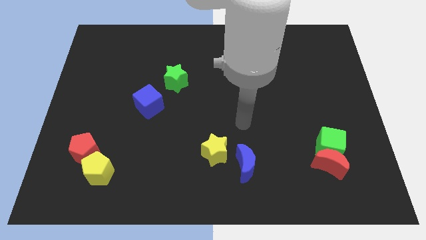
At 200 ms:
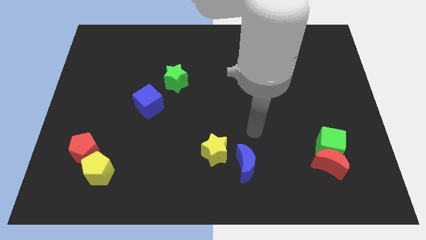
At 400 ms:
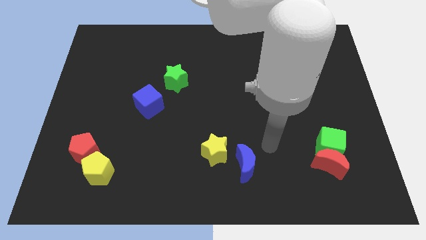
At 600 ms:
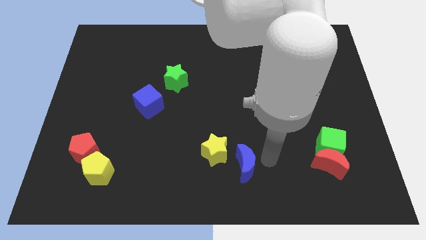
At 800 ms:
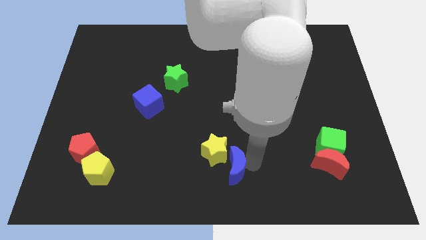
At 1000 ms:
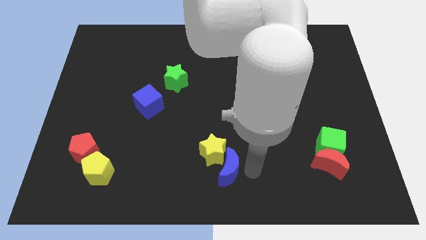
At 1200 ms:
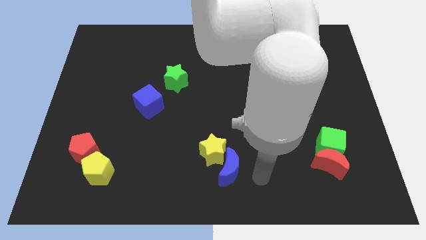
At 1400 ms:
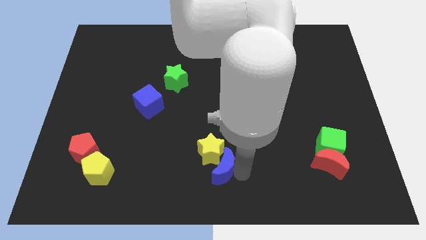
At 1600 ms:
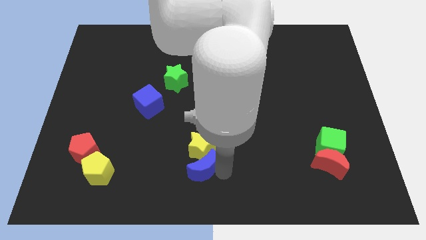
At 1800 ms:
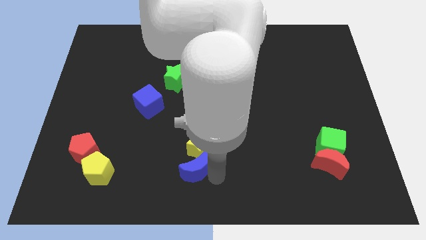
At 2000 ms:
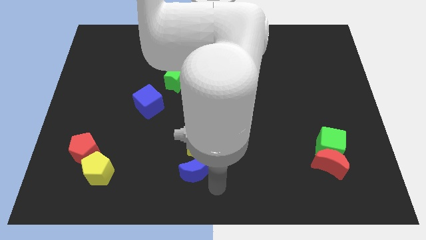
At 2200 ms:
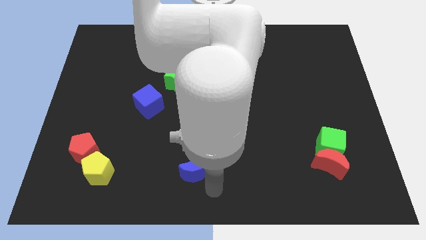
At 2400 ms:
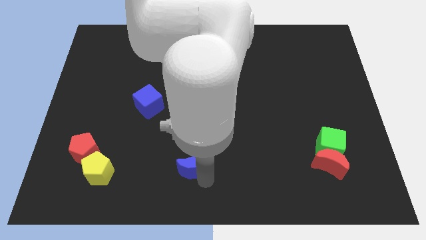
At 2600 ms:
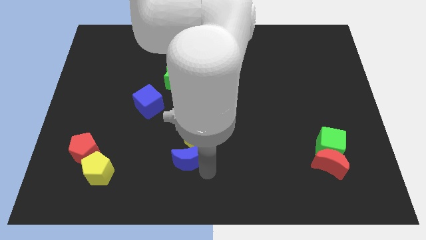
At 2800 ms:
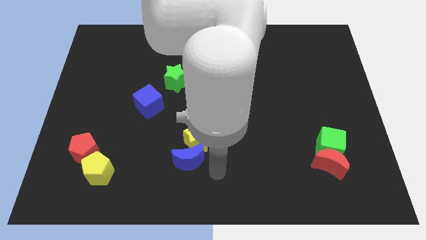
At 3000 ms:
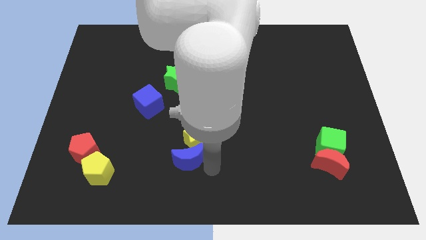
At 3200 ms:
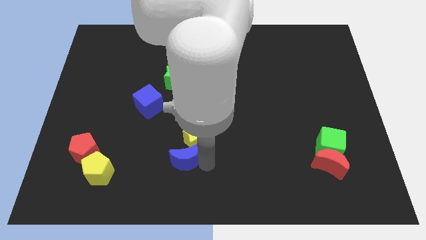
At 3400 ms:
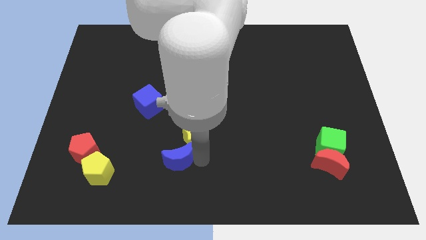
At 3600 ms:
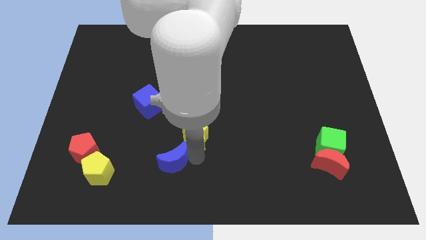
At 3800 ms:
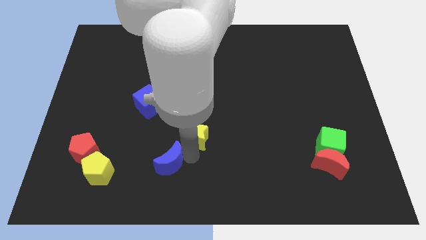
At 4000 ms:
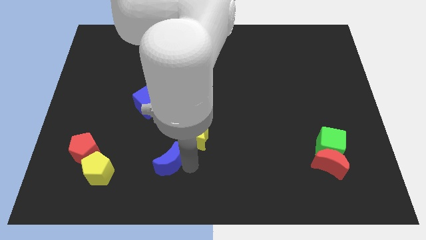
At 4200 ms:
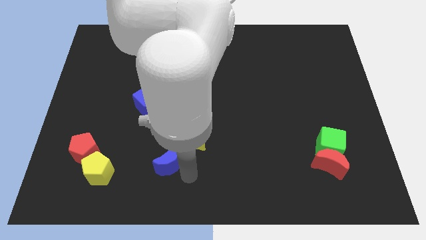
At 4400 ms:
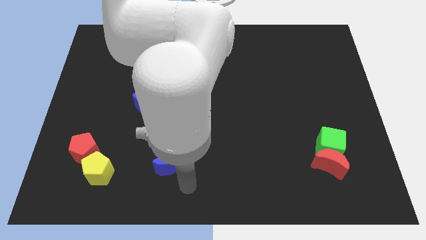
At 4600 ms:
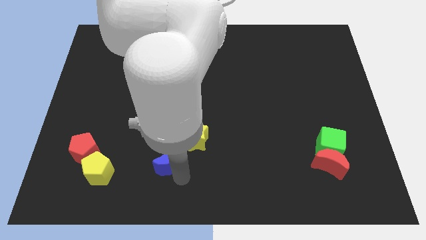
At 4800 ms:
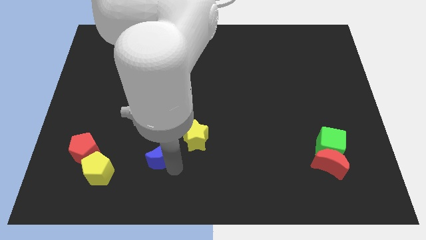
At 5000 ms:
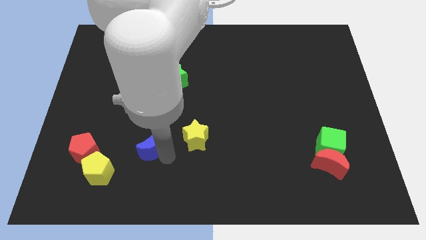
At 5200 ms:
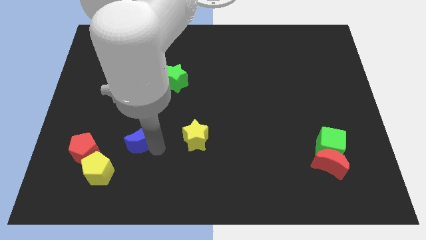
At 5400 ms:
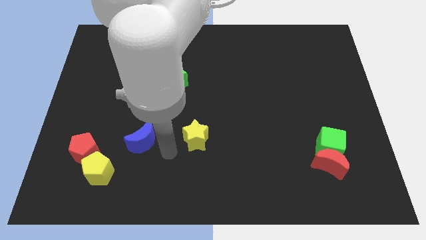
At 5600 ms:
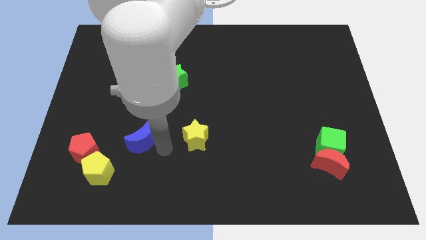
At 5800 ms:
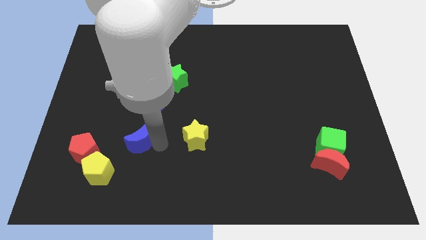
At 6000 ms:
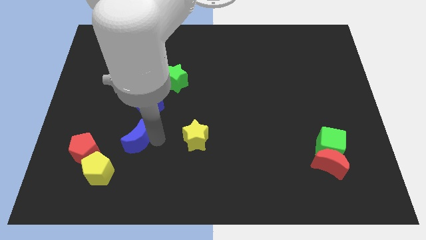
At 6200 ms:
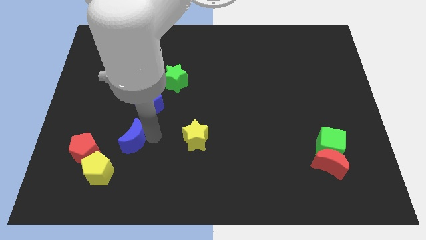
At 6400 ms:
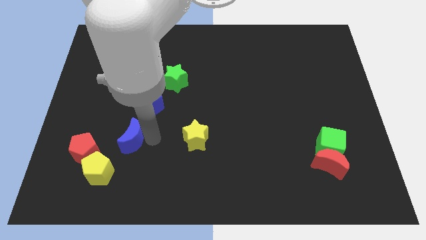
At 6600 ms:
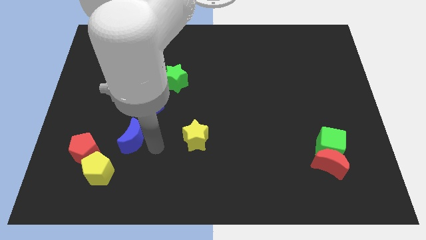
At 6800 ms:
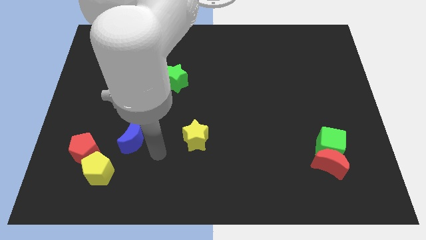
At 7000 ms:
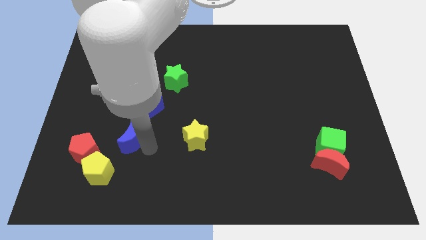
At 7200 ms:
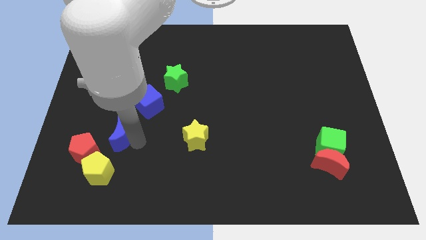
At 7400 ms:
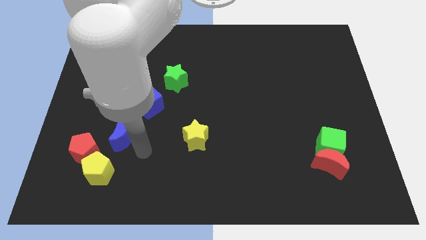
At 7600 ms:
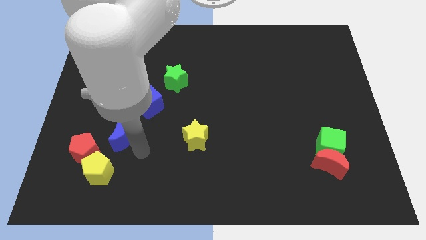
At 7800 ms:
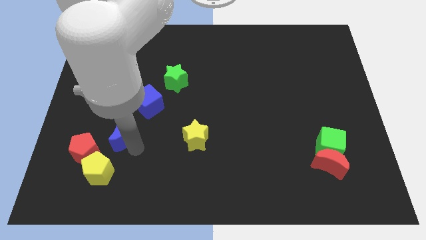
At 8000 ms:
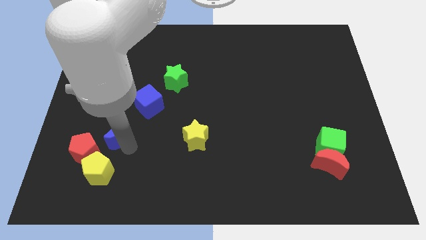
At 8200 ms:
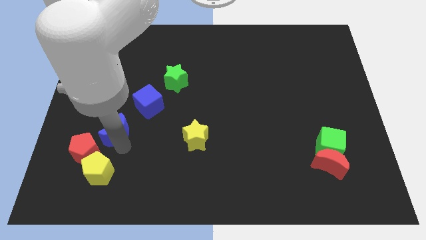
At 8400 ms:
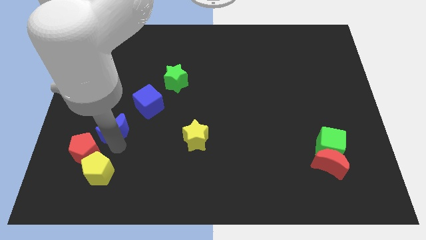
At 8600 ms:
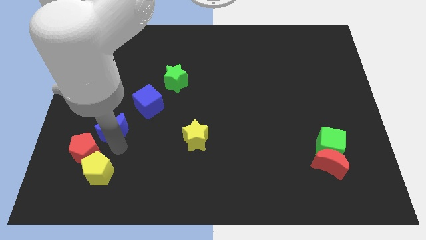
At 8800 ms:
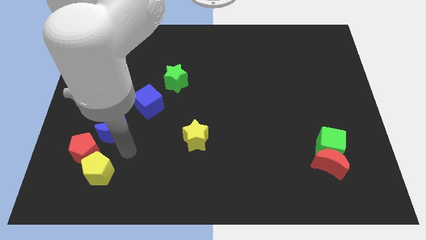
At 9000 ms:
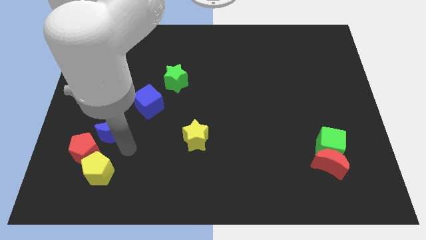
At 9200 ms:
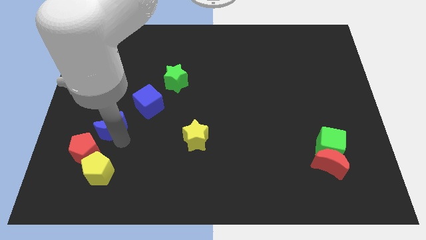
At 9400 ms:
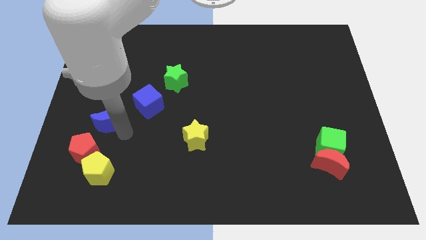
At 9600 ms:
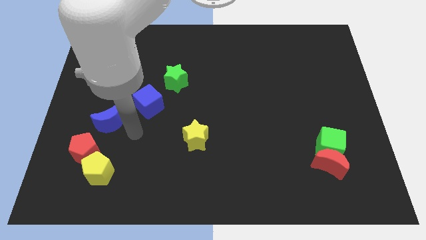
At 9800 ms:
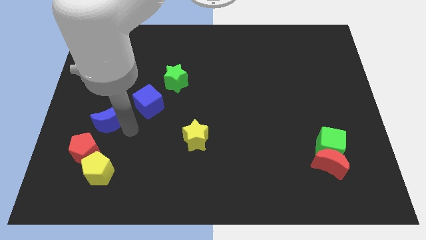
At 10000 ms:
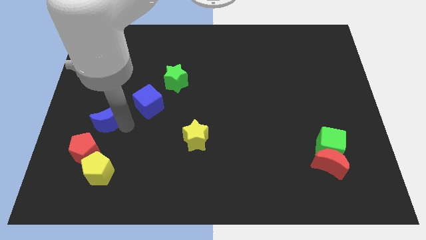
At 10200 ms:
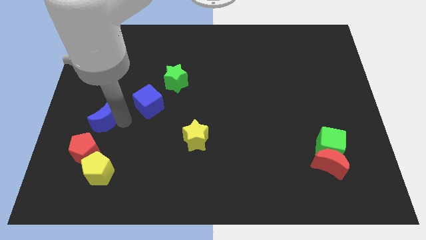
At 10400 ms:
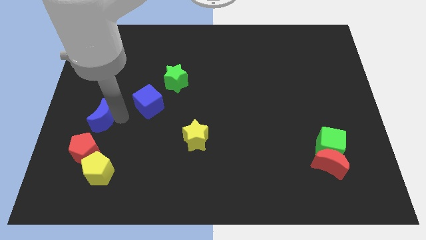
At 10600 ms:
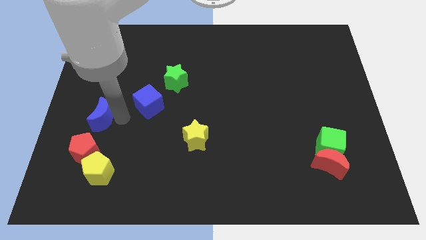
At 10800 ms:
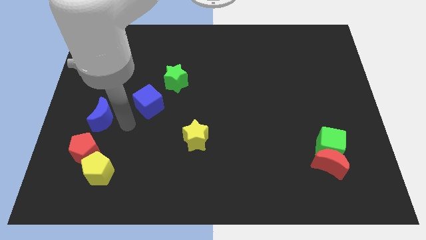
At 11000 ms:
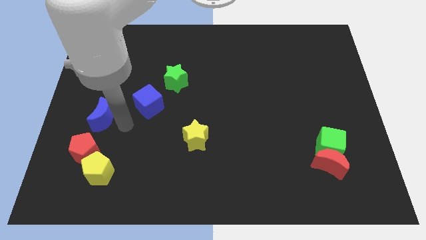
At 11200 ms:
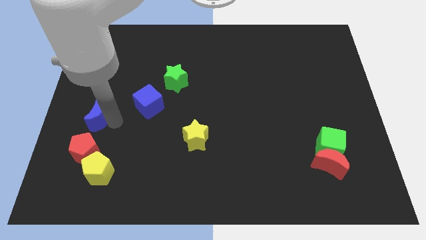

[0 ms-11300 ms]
slide the blue moon to the center left

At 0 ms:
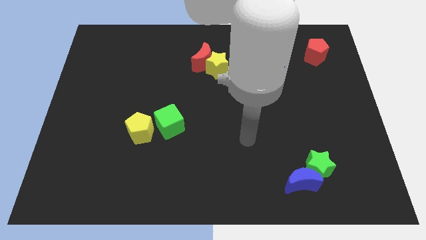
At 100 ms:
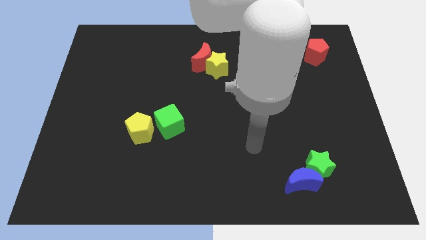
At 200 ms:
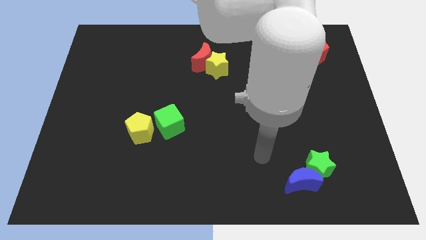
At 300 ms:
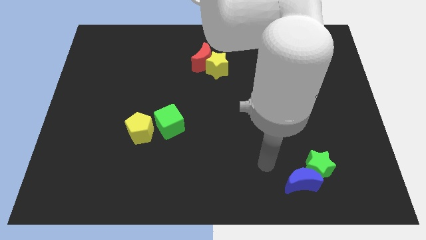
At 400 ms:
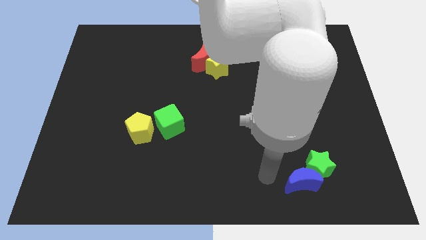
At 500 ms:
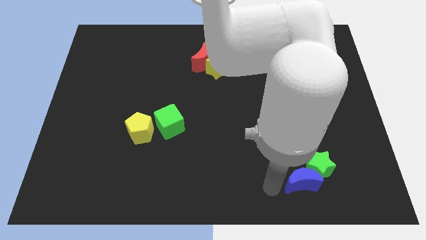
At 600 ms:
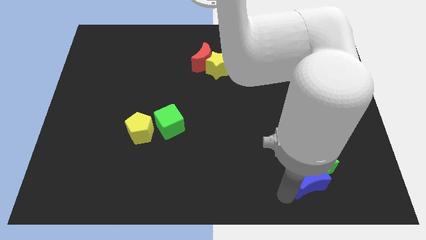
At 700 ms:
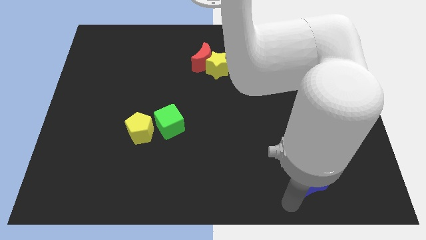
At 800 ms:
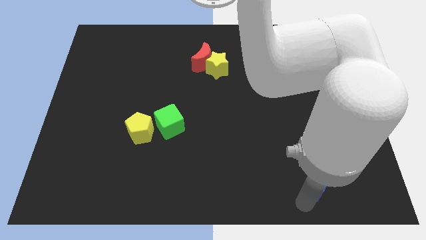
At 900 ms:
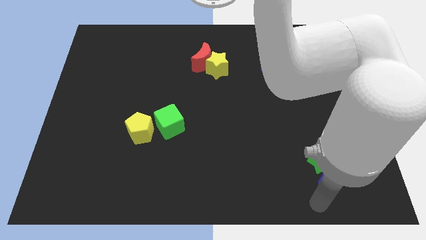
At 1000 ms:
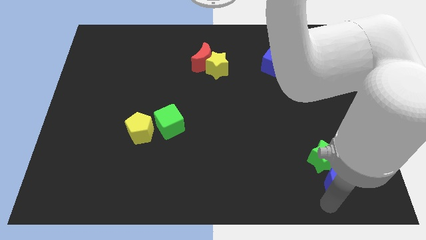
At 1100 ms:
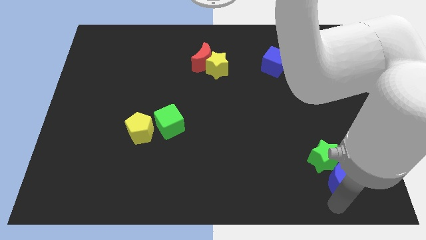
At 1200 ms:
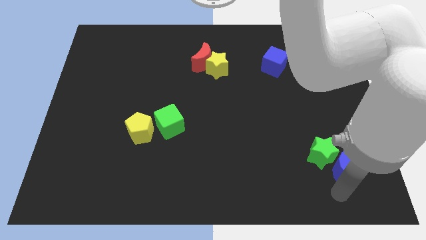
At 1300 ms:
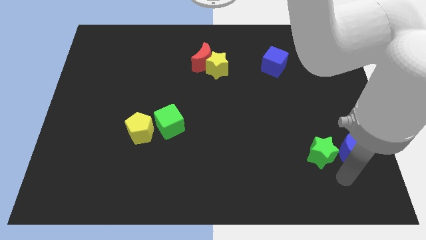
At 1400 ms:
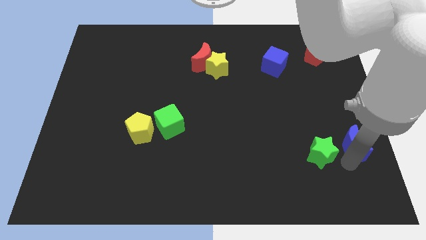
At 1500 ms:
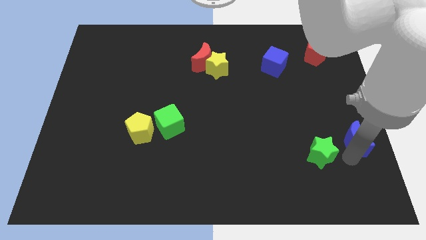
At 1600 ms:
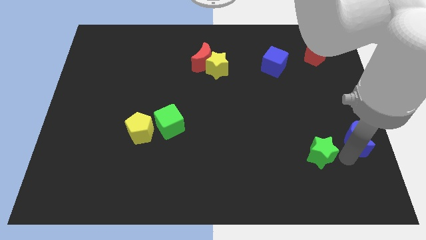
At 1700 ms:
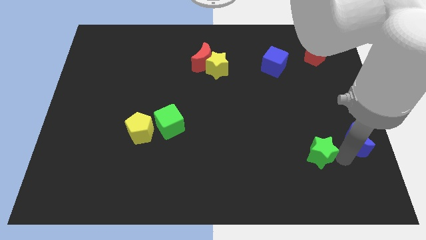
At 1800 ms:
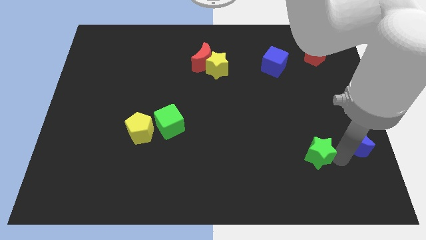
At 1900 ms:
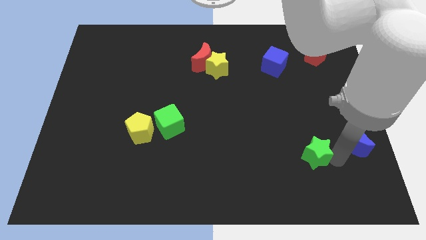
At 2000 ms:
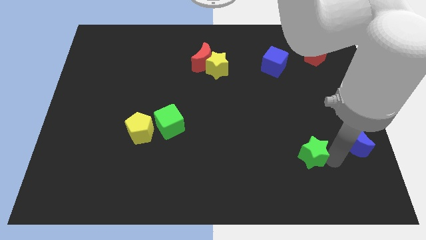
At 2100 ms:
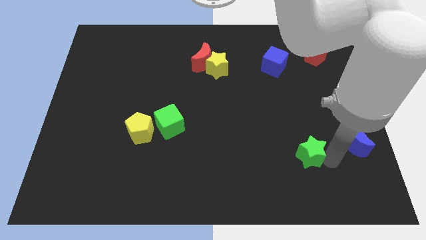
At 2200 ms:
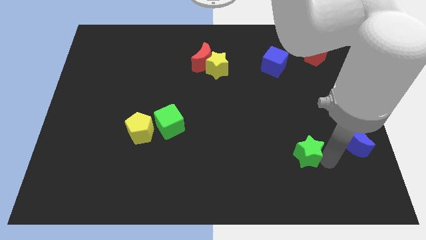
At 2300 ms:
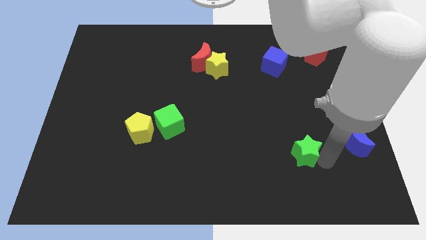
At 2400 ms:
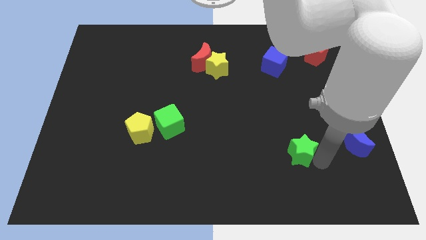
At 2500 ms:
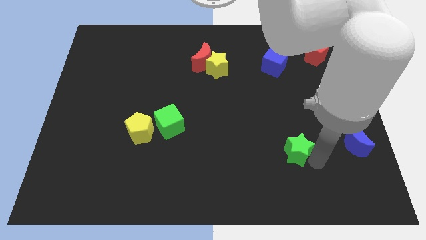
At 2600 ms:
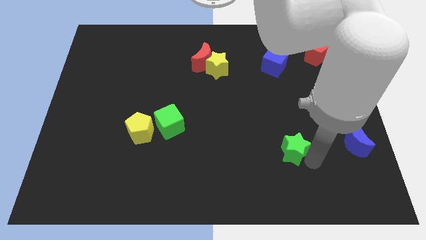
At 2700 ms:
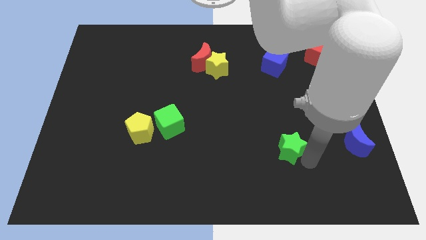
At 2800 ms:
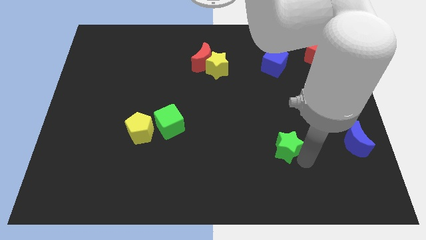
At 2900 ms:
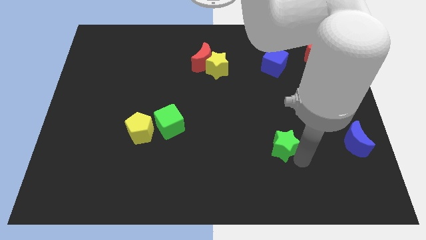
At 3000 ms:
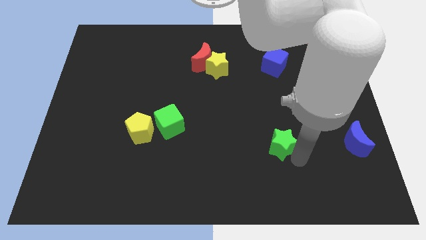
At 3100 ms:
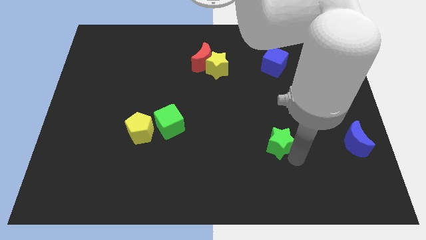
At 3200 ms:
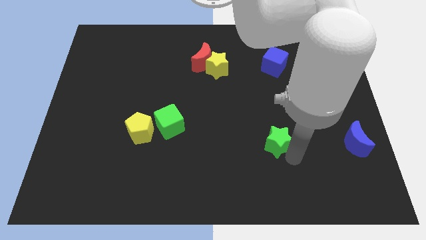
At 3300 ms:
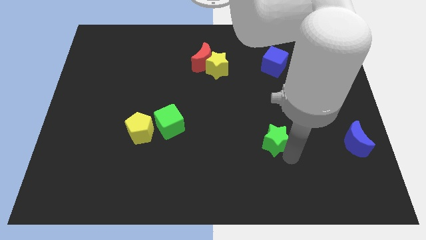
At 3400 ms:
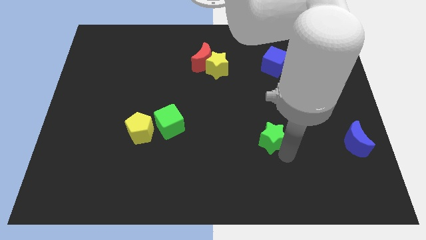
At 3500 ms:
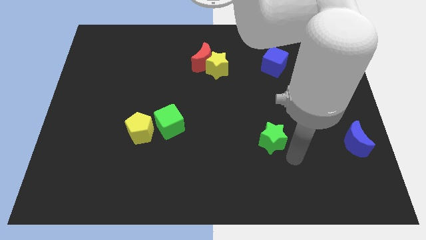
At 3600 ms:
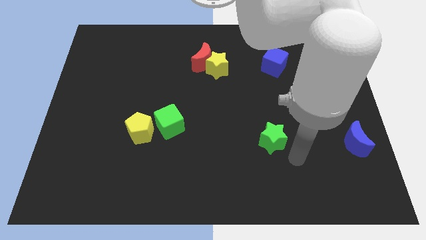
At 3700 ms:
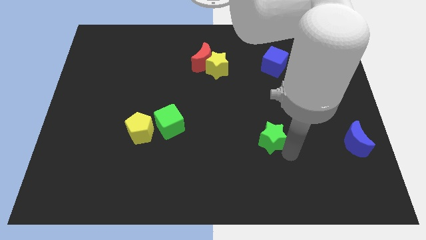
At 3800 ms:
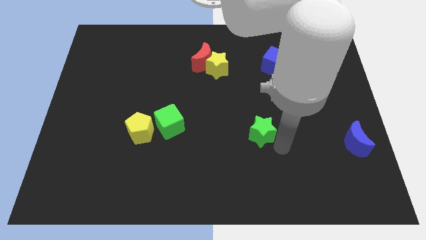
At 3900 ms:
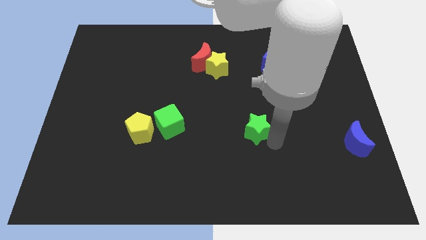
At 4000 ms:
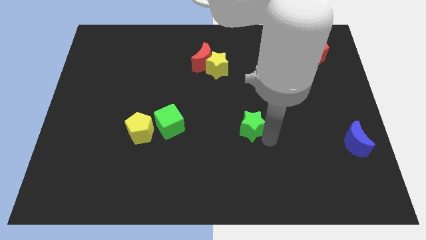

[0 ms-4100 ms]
put the green star to the center
